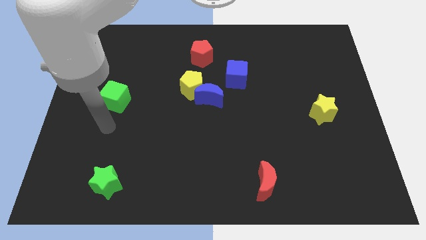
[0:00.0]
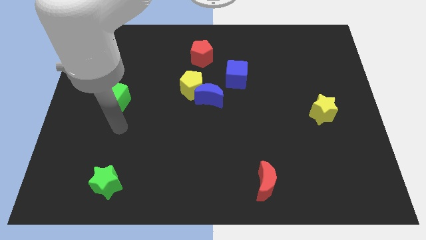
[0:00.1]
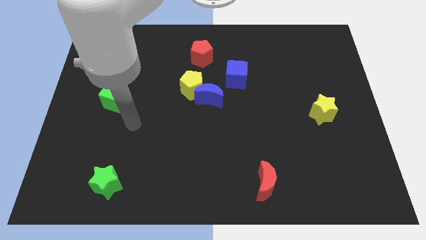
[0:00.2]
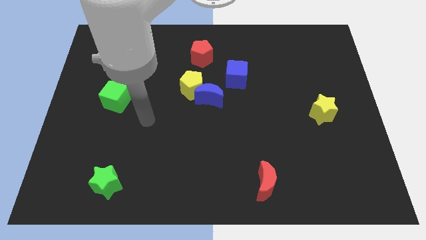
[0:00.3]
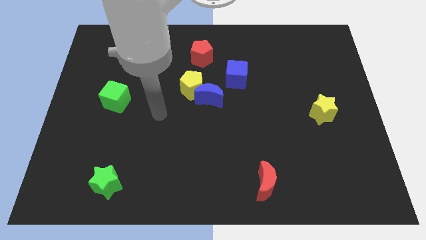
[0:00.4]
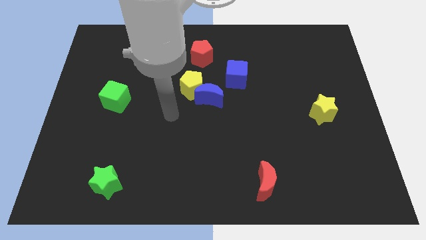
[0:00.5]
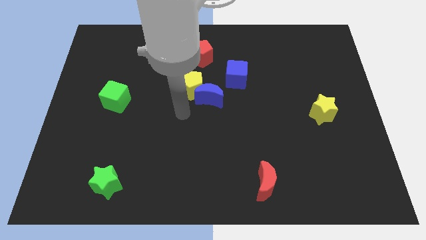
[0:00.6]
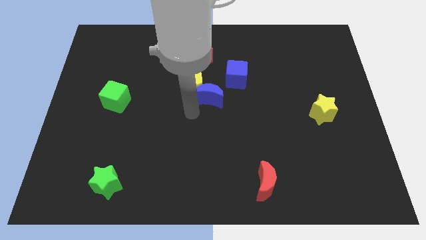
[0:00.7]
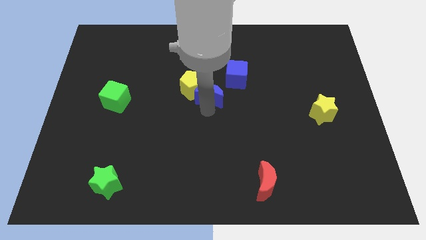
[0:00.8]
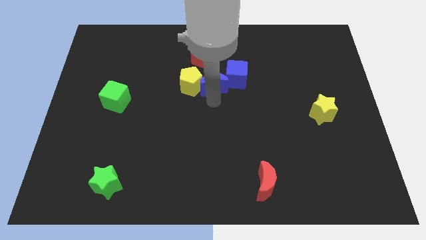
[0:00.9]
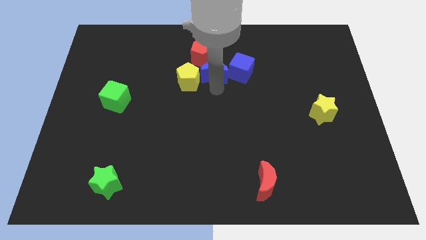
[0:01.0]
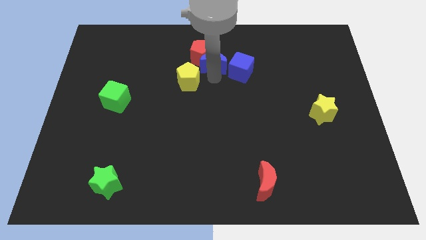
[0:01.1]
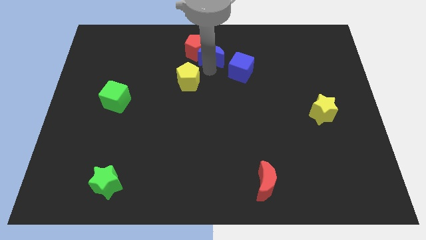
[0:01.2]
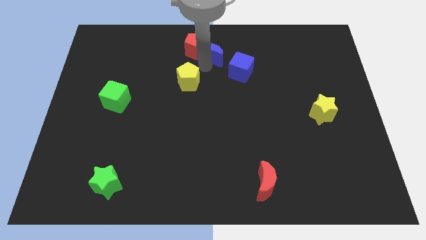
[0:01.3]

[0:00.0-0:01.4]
pull the yellow pentagon apart from the blue moon

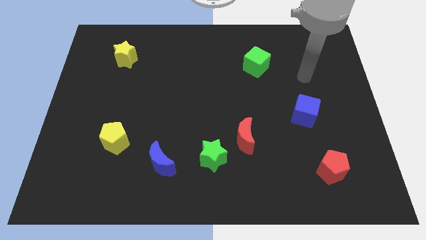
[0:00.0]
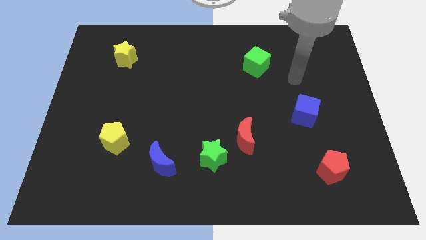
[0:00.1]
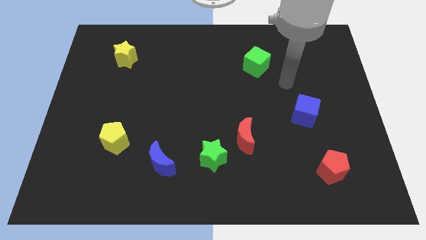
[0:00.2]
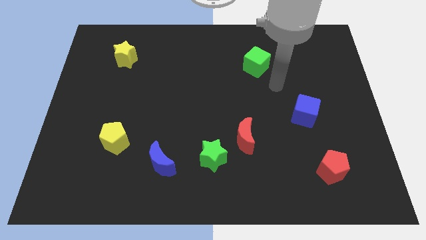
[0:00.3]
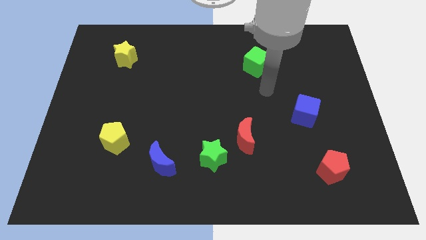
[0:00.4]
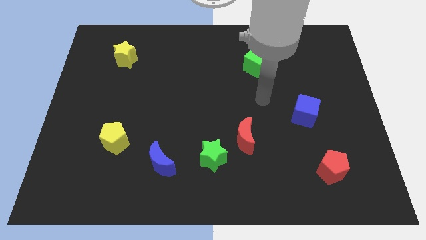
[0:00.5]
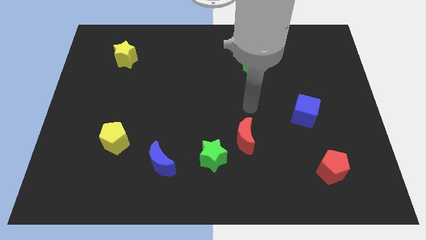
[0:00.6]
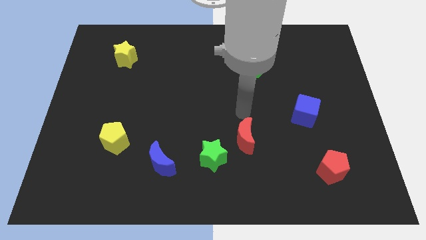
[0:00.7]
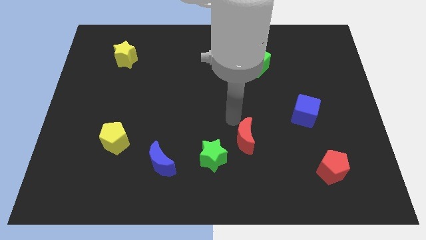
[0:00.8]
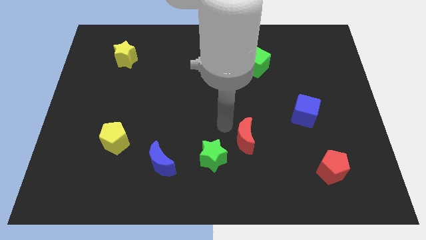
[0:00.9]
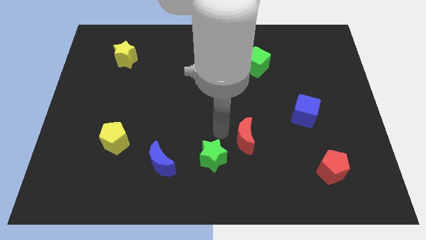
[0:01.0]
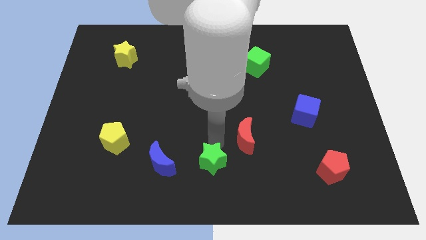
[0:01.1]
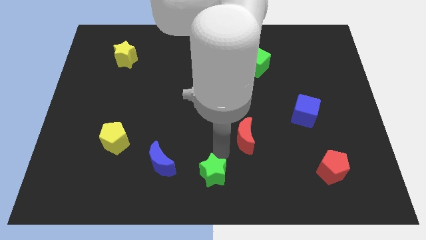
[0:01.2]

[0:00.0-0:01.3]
move the red moon away from the green star

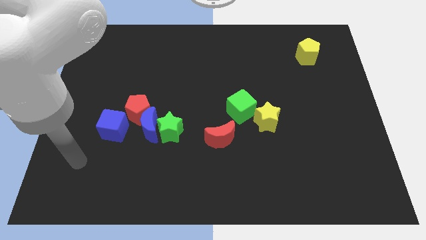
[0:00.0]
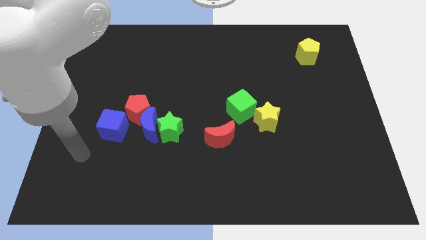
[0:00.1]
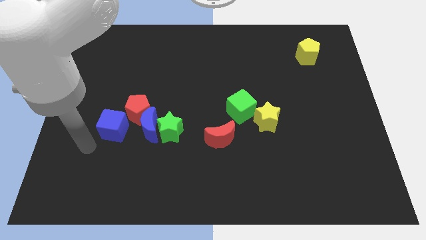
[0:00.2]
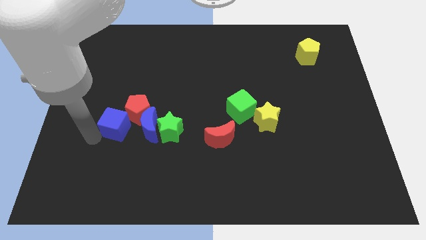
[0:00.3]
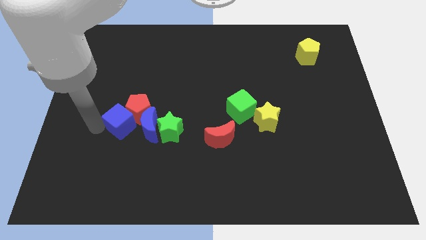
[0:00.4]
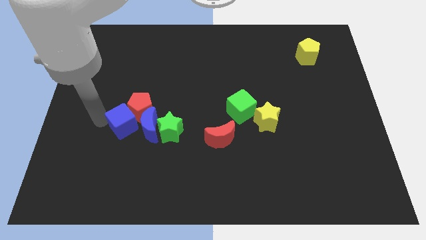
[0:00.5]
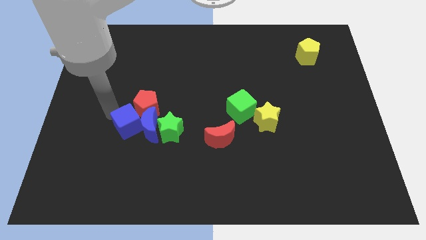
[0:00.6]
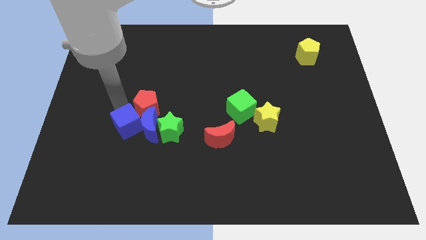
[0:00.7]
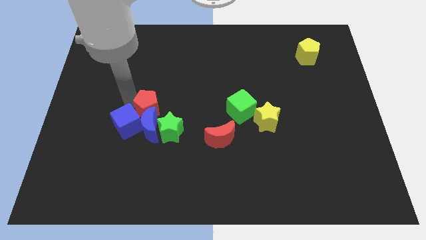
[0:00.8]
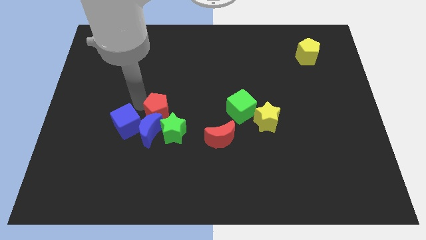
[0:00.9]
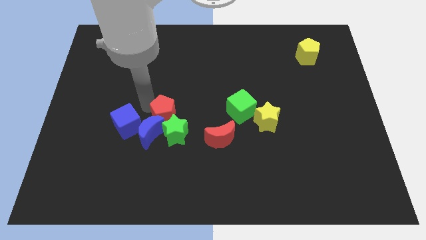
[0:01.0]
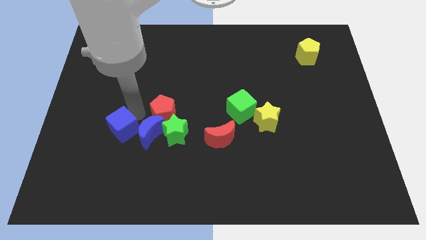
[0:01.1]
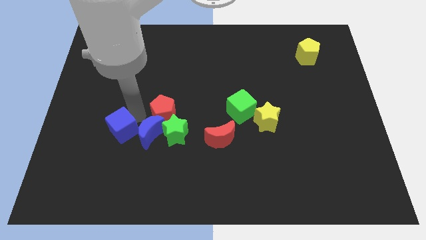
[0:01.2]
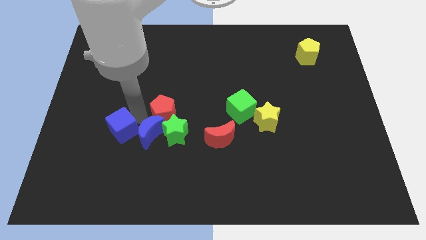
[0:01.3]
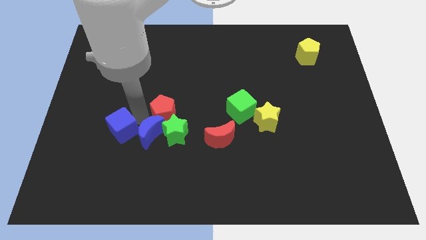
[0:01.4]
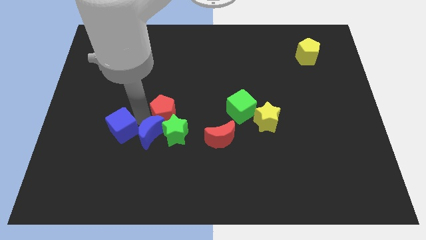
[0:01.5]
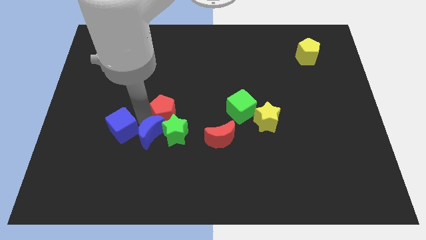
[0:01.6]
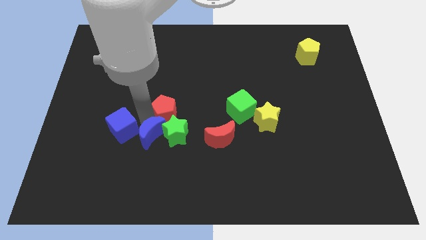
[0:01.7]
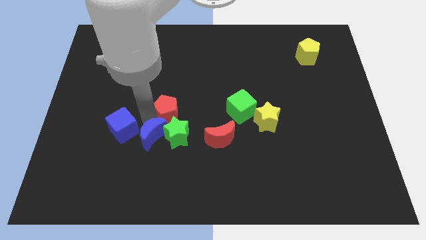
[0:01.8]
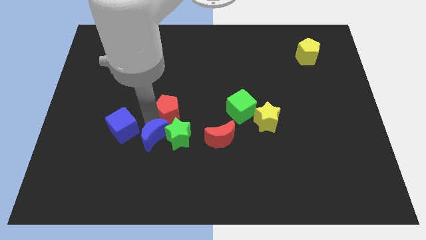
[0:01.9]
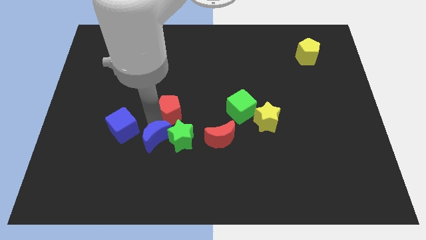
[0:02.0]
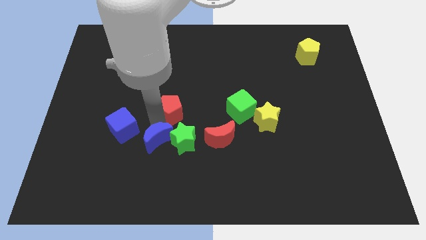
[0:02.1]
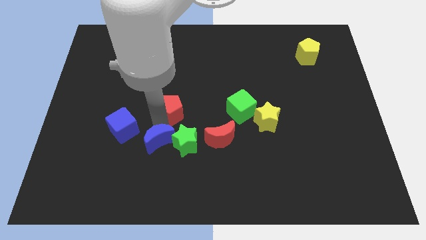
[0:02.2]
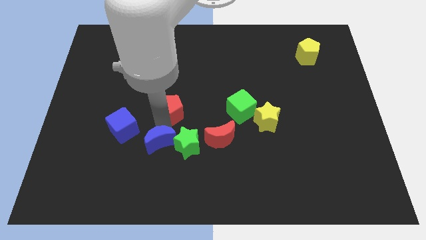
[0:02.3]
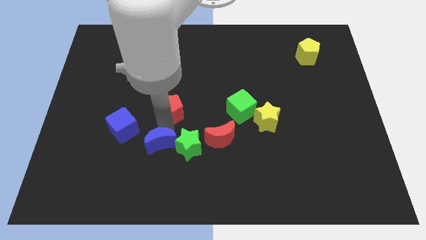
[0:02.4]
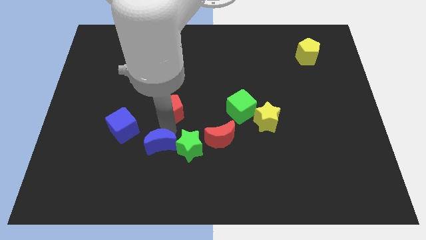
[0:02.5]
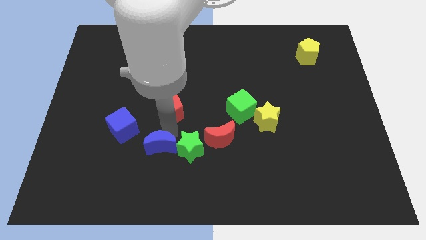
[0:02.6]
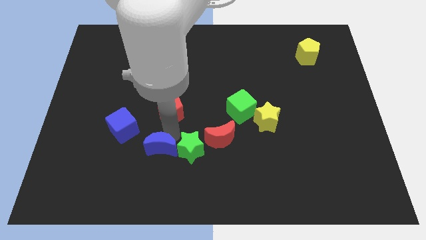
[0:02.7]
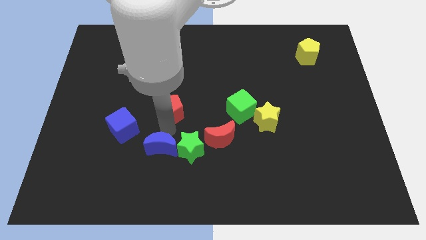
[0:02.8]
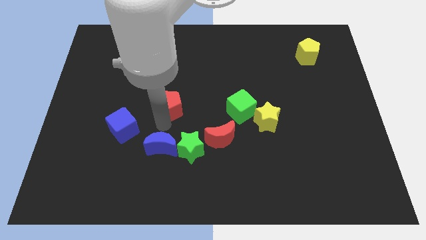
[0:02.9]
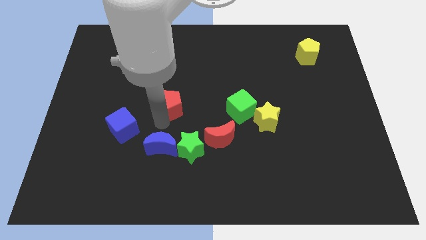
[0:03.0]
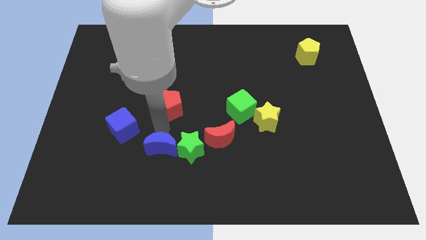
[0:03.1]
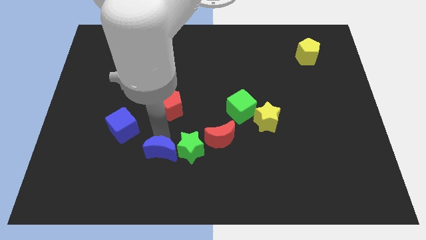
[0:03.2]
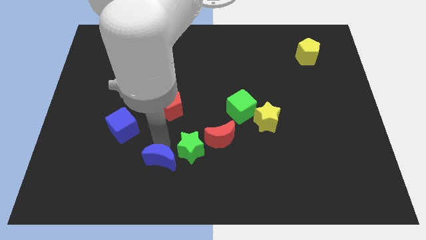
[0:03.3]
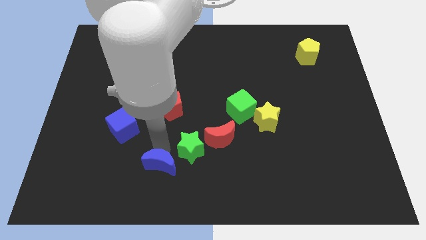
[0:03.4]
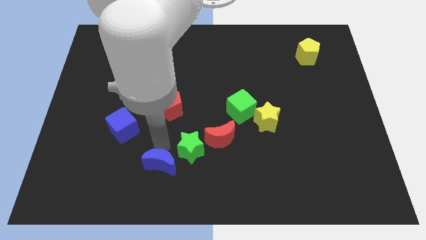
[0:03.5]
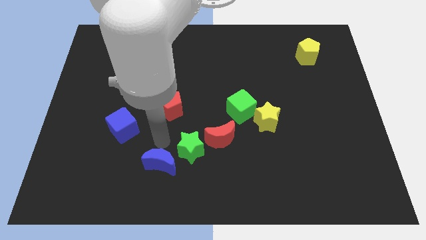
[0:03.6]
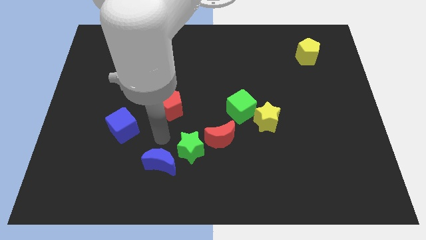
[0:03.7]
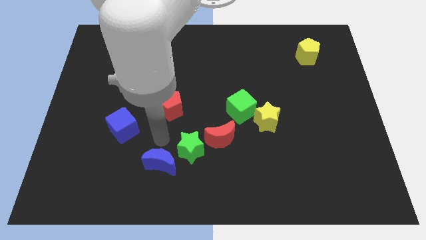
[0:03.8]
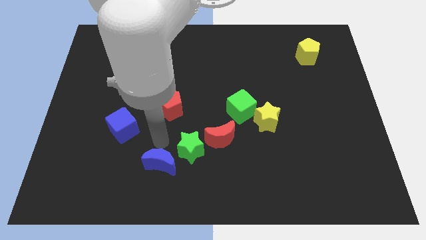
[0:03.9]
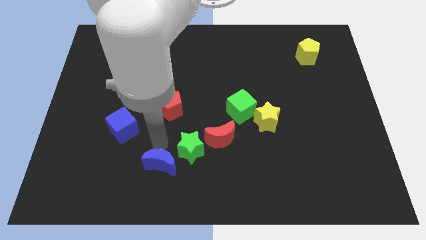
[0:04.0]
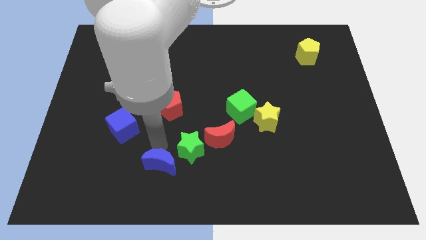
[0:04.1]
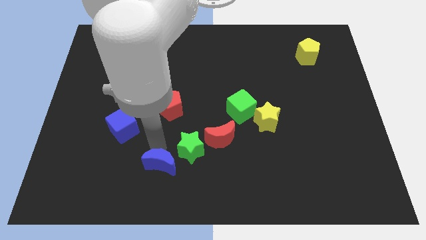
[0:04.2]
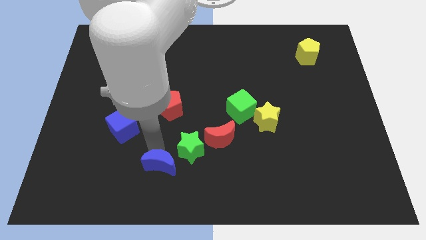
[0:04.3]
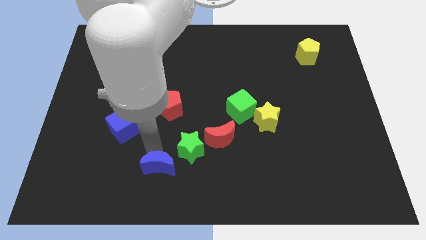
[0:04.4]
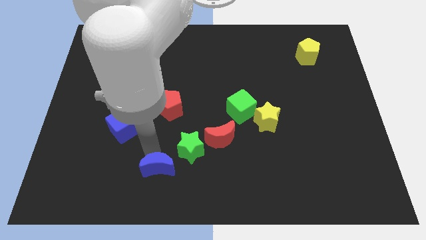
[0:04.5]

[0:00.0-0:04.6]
pull the blue moon apart from the group

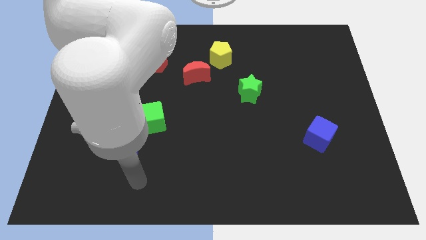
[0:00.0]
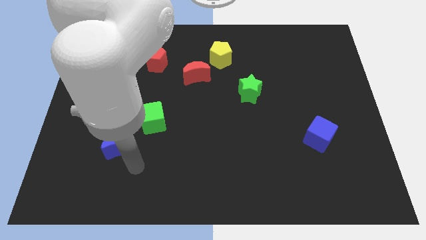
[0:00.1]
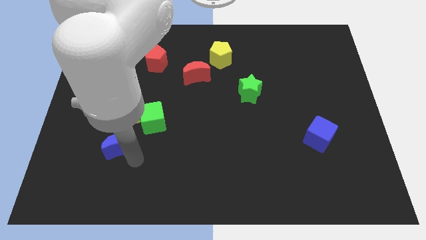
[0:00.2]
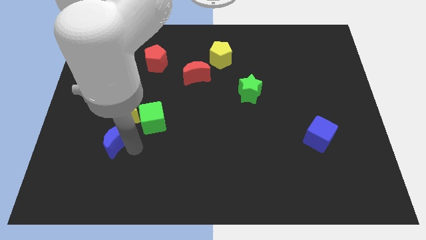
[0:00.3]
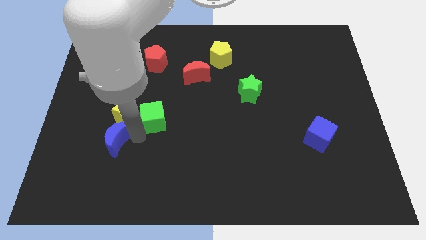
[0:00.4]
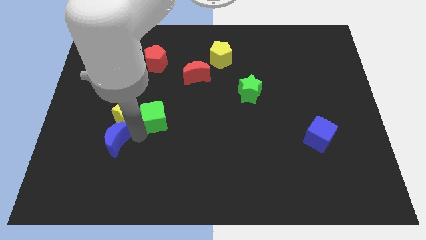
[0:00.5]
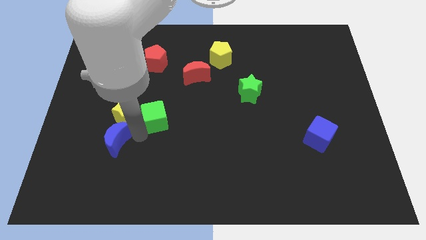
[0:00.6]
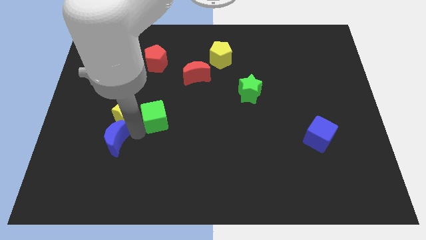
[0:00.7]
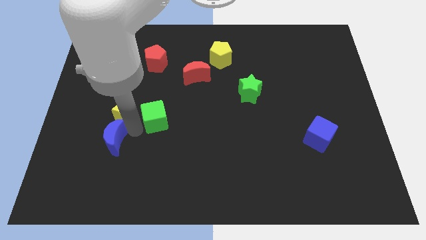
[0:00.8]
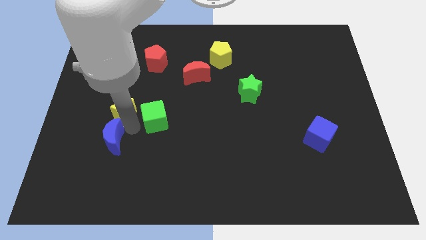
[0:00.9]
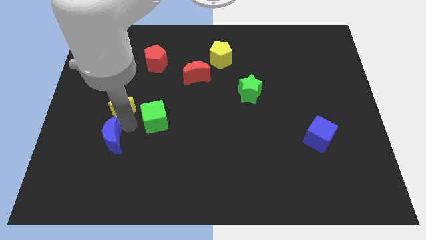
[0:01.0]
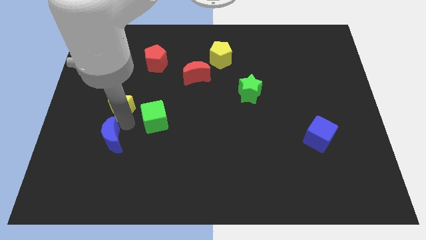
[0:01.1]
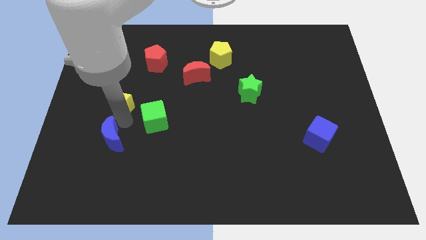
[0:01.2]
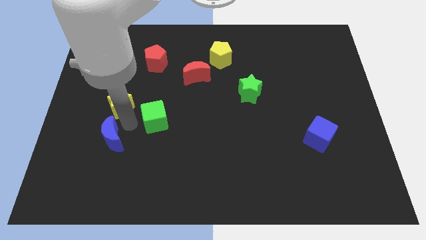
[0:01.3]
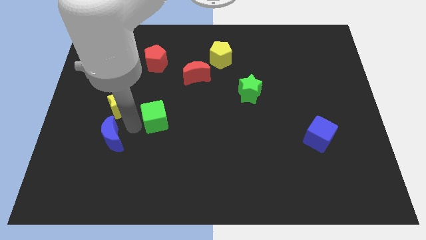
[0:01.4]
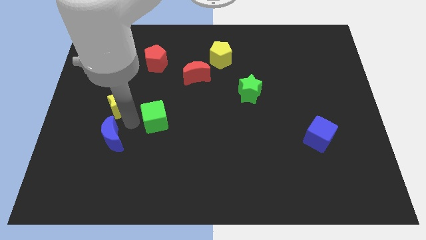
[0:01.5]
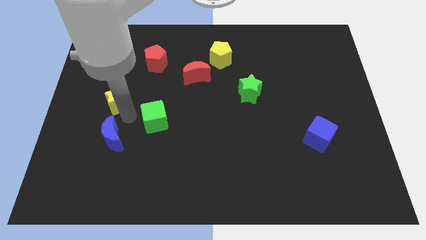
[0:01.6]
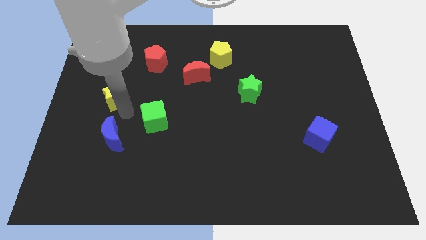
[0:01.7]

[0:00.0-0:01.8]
separate the yellow star from the green cube and blue moon

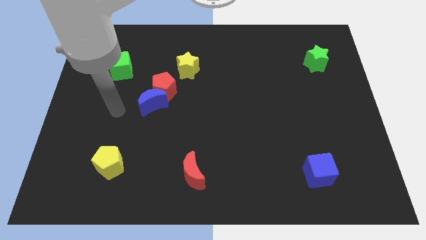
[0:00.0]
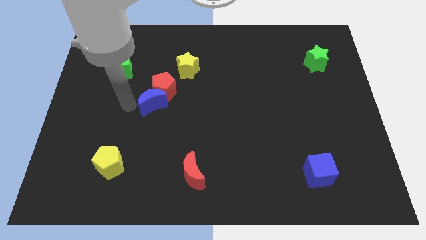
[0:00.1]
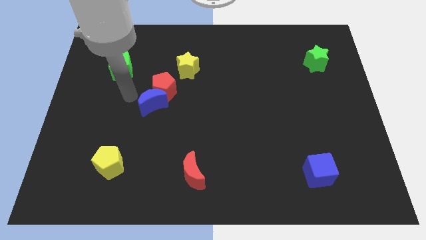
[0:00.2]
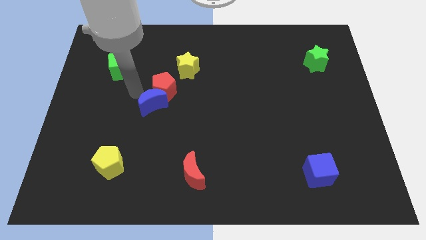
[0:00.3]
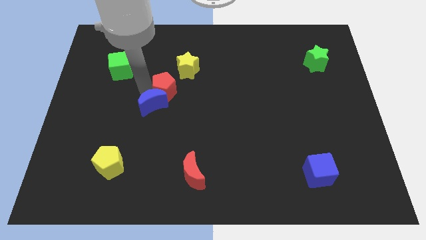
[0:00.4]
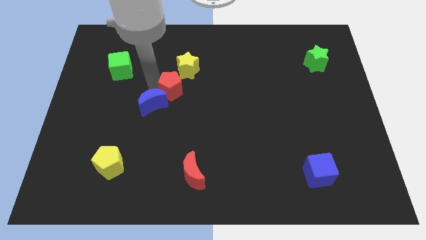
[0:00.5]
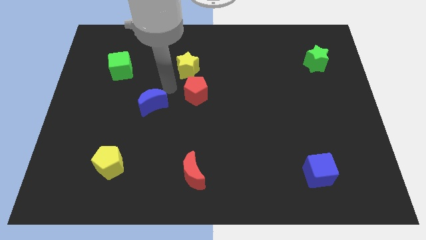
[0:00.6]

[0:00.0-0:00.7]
move the blue moon away from the red pentagon
